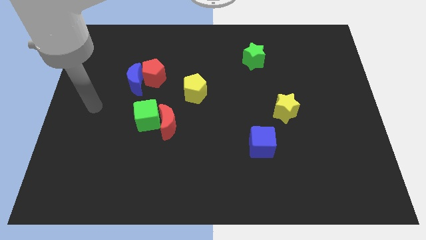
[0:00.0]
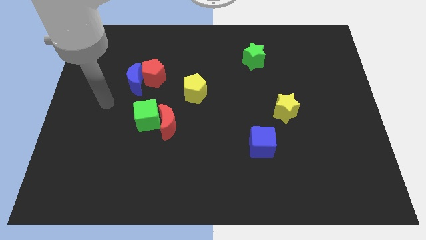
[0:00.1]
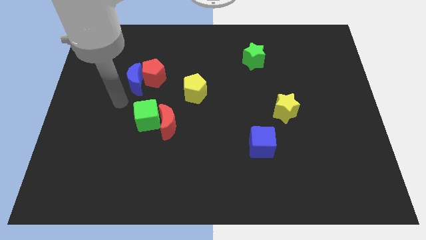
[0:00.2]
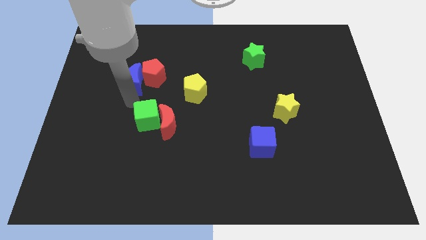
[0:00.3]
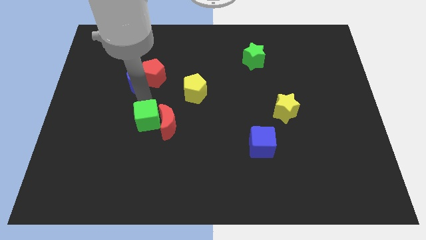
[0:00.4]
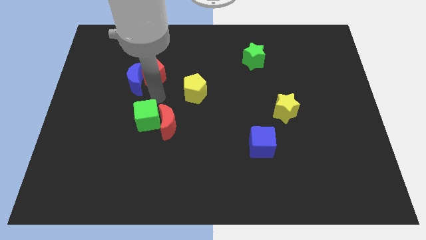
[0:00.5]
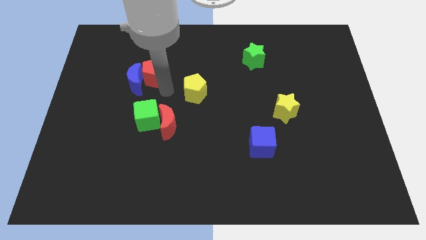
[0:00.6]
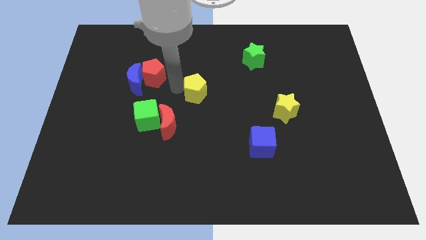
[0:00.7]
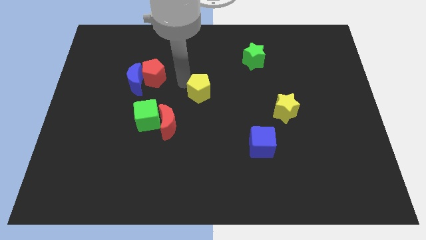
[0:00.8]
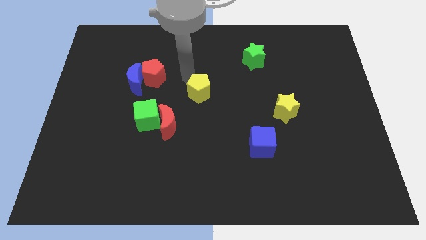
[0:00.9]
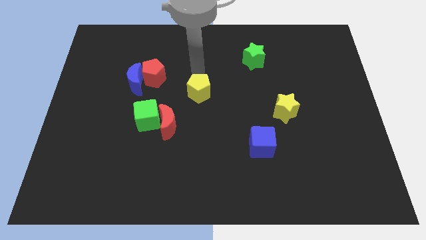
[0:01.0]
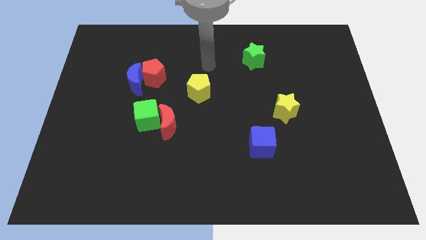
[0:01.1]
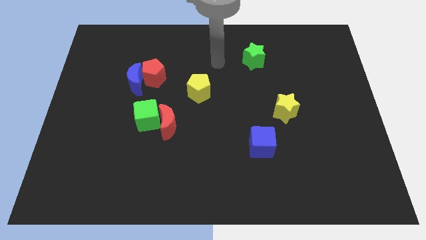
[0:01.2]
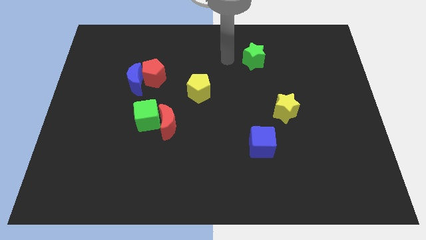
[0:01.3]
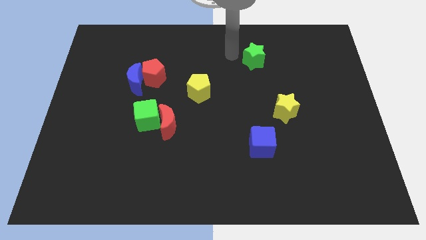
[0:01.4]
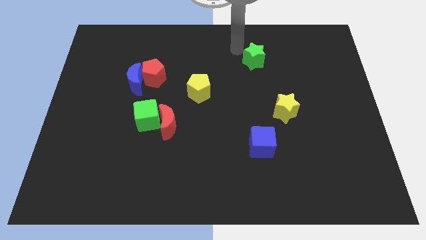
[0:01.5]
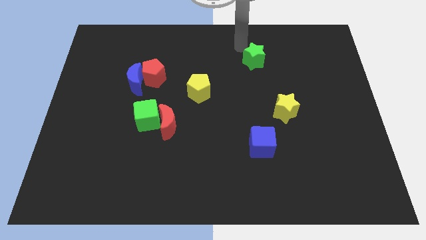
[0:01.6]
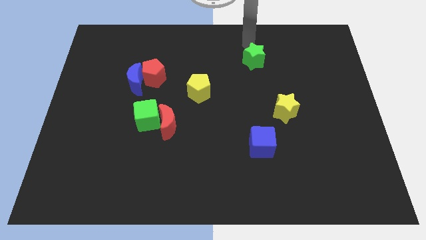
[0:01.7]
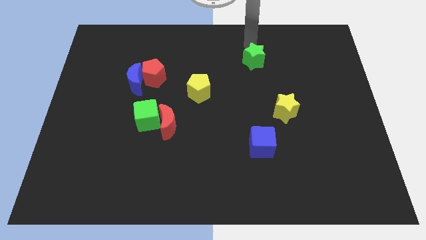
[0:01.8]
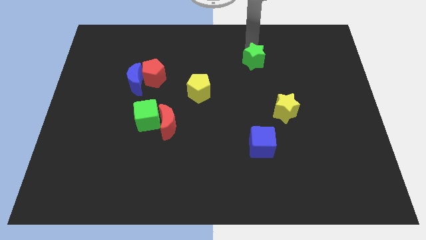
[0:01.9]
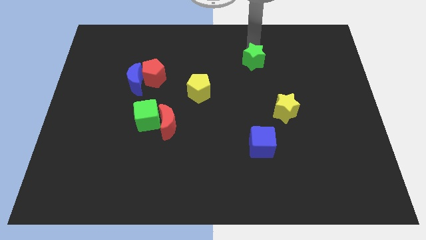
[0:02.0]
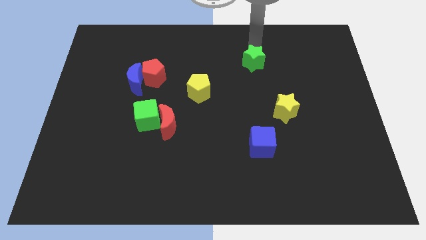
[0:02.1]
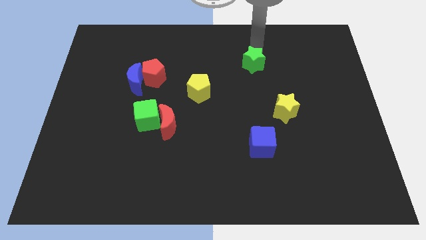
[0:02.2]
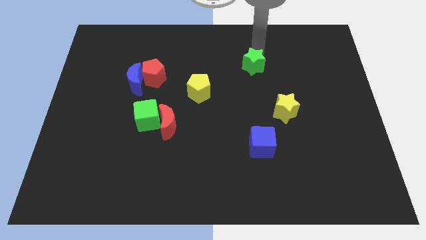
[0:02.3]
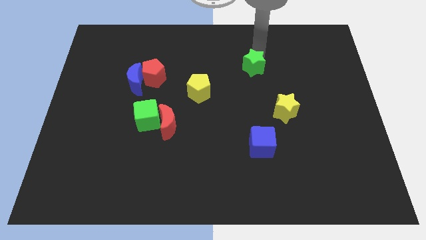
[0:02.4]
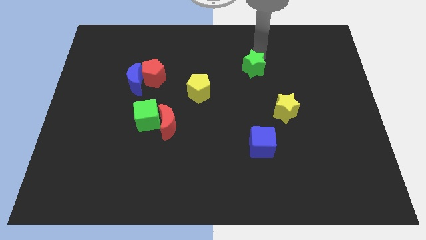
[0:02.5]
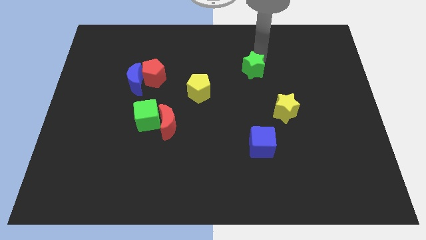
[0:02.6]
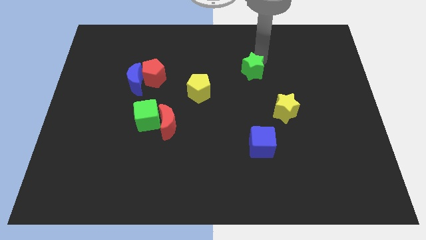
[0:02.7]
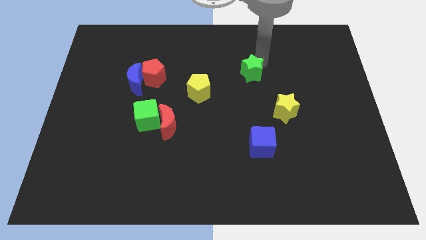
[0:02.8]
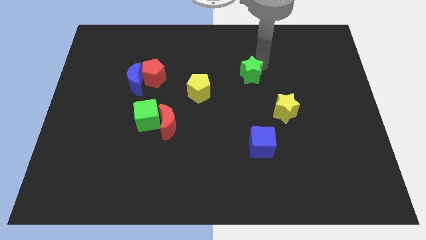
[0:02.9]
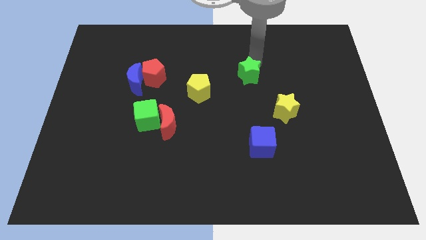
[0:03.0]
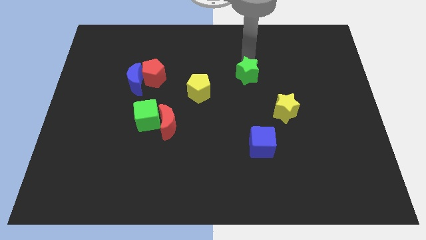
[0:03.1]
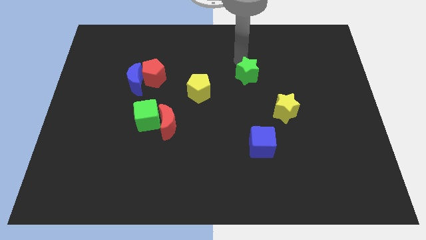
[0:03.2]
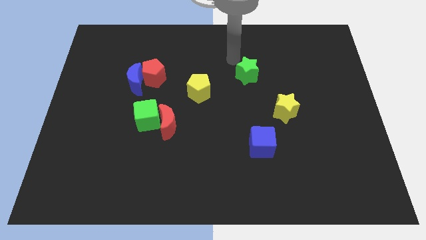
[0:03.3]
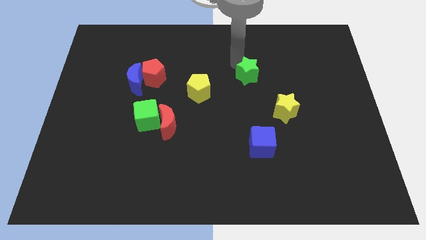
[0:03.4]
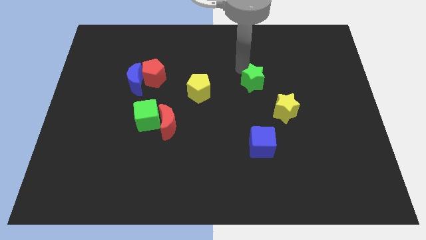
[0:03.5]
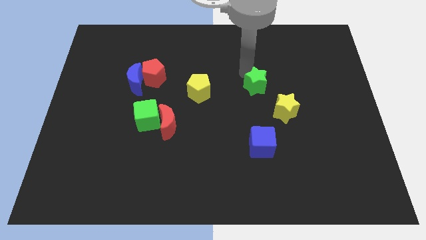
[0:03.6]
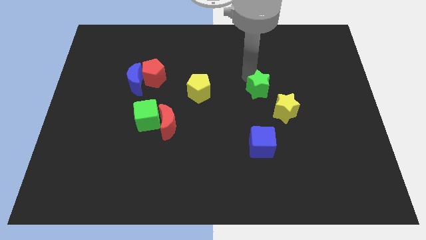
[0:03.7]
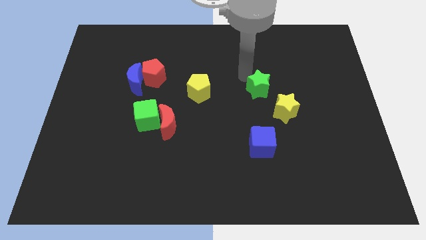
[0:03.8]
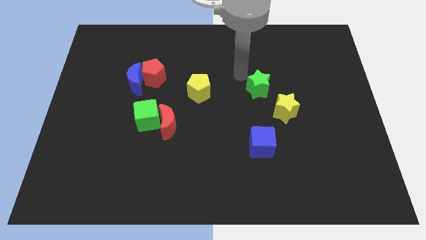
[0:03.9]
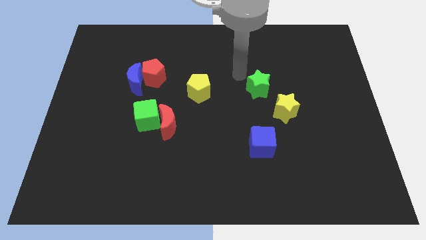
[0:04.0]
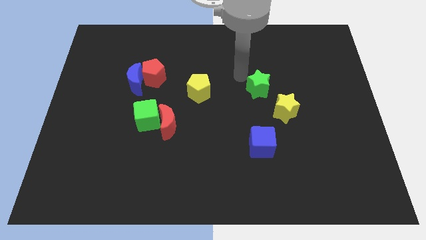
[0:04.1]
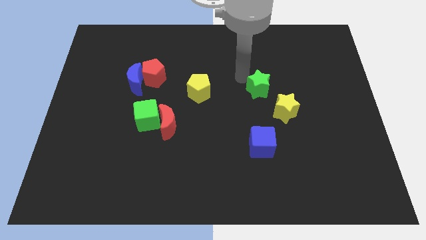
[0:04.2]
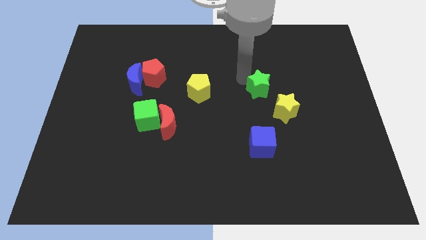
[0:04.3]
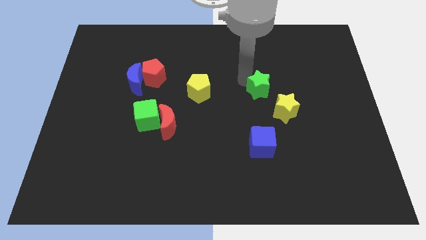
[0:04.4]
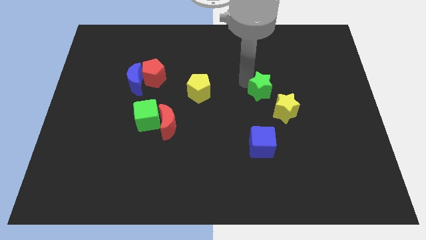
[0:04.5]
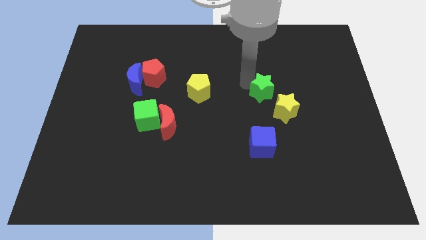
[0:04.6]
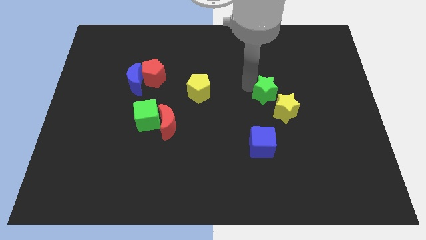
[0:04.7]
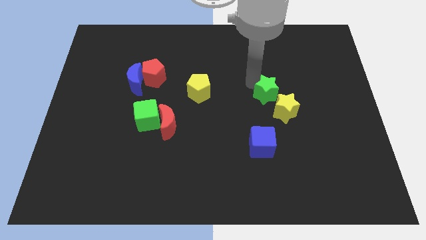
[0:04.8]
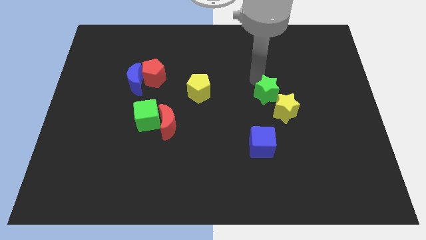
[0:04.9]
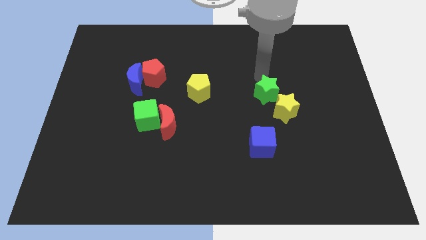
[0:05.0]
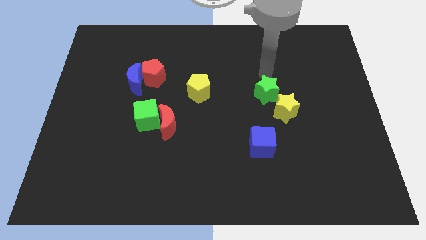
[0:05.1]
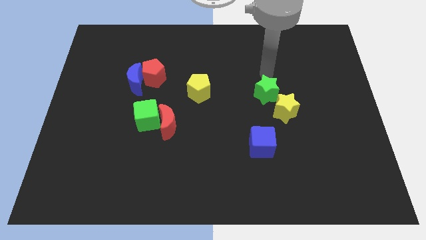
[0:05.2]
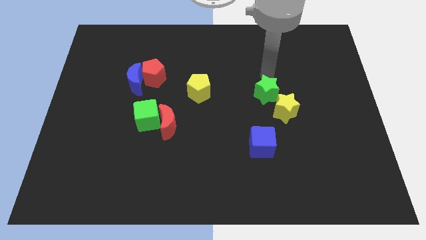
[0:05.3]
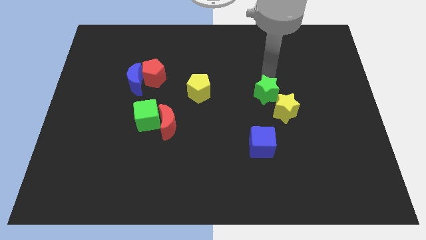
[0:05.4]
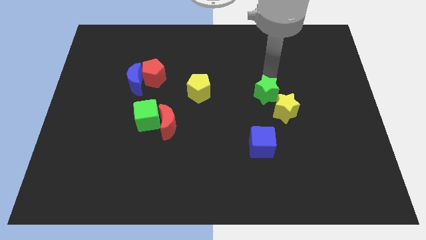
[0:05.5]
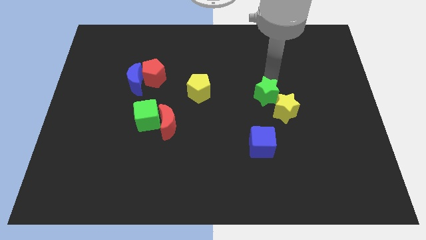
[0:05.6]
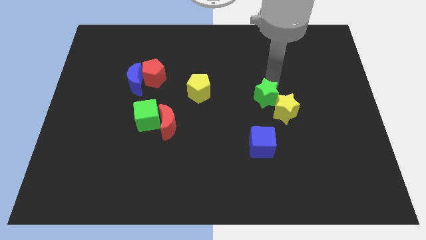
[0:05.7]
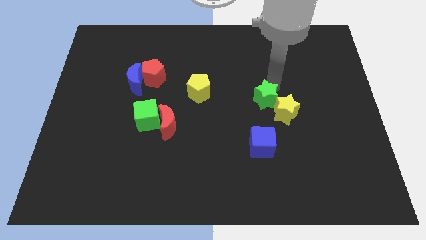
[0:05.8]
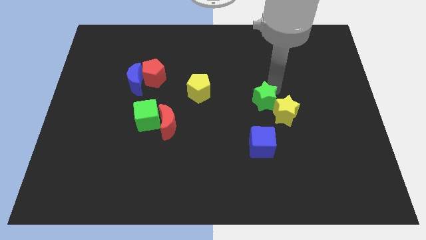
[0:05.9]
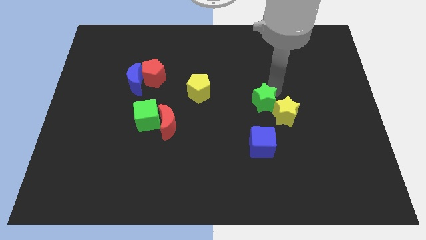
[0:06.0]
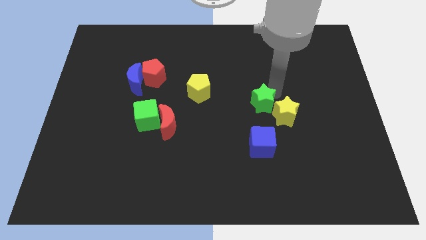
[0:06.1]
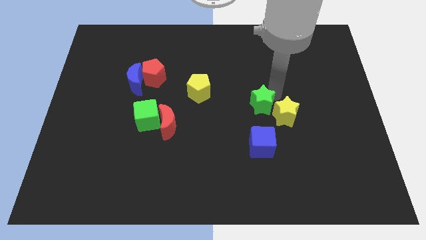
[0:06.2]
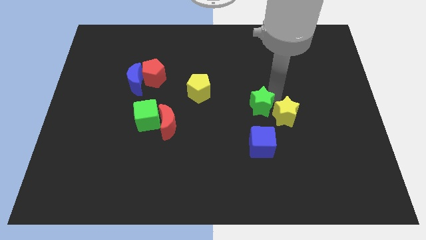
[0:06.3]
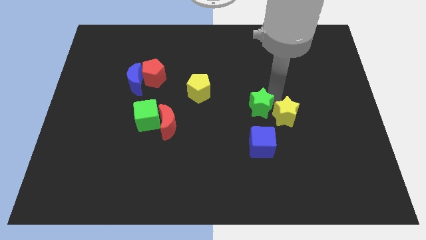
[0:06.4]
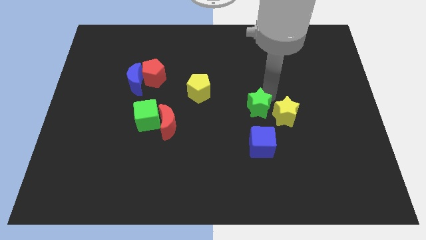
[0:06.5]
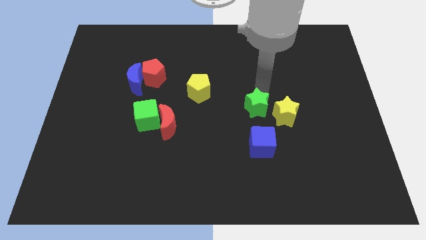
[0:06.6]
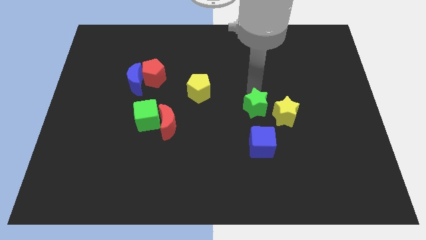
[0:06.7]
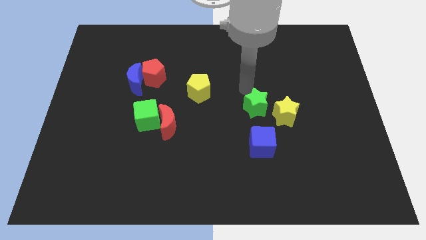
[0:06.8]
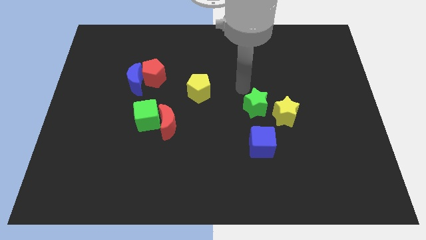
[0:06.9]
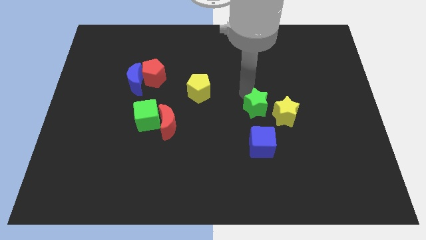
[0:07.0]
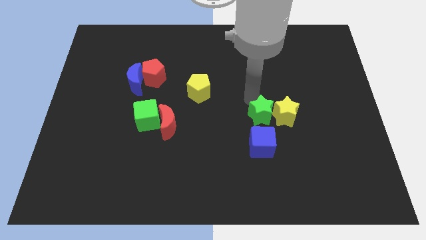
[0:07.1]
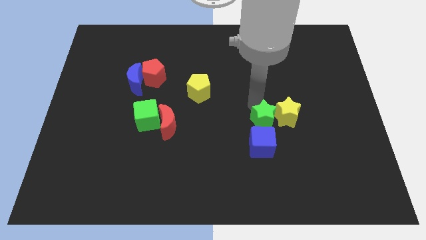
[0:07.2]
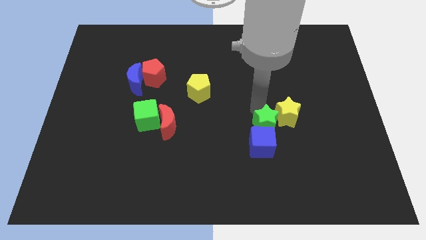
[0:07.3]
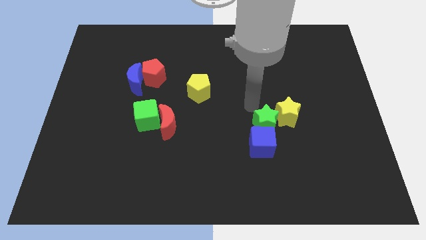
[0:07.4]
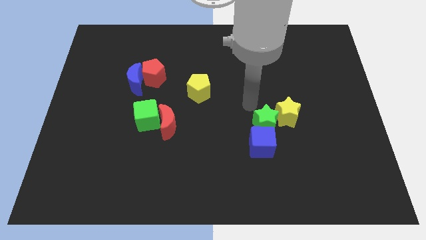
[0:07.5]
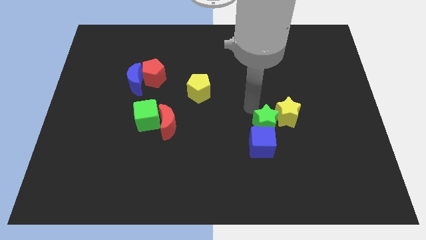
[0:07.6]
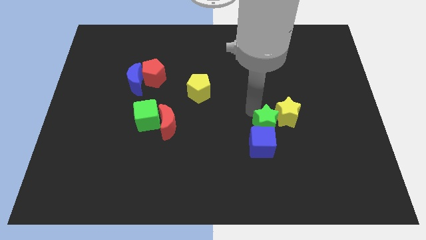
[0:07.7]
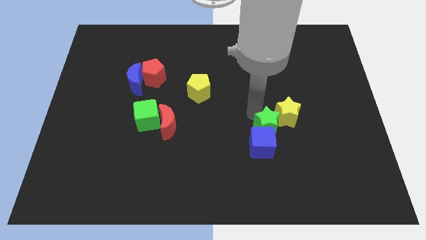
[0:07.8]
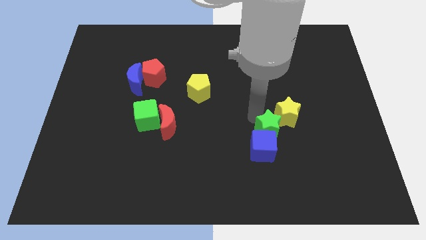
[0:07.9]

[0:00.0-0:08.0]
slide the green star to the bottom side of the yellow star
